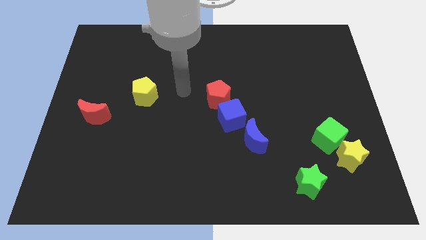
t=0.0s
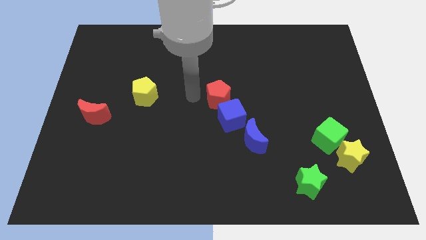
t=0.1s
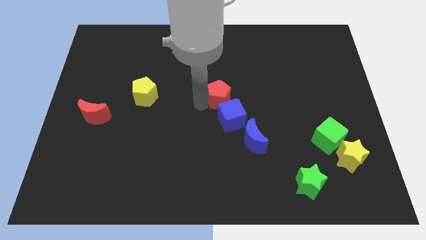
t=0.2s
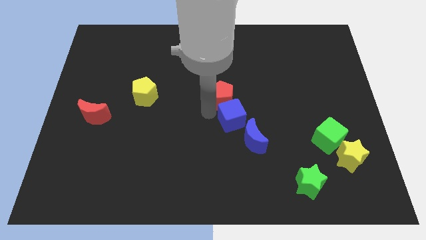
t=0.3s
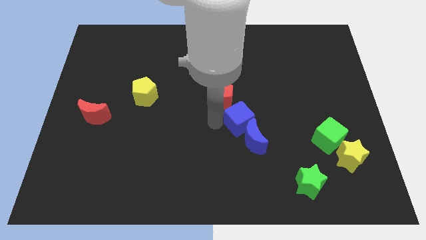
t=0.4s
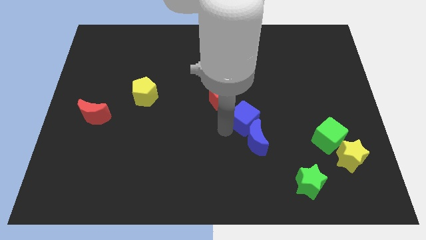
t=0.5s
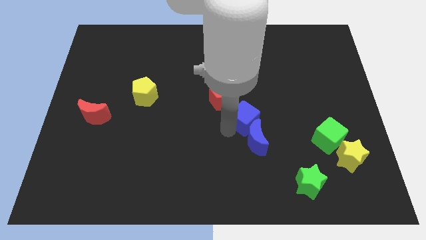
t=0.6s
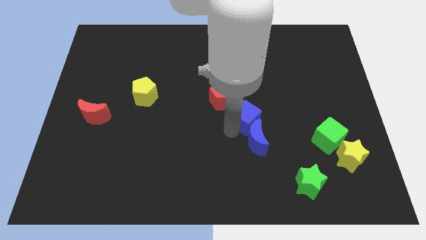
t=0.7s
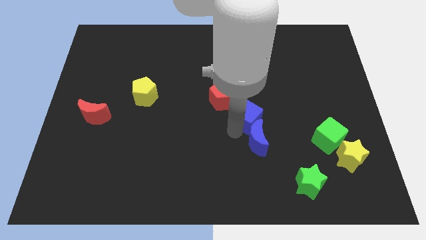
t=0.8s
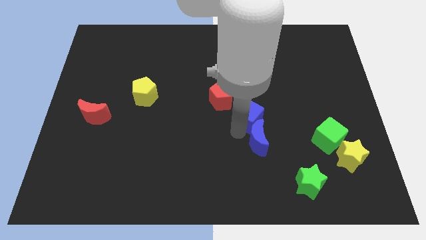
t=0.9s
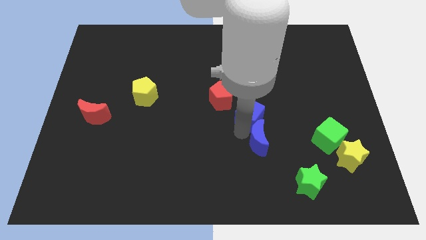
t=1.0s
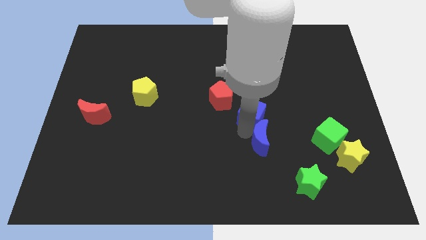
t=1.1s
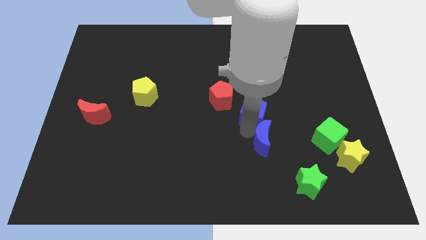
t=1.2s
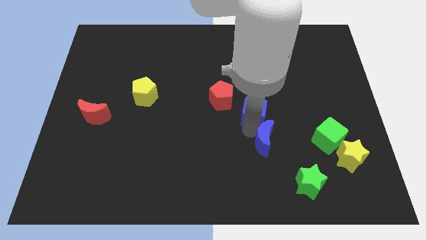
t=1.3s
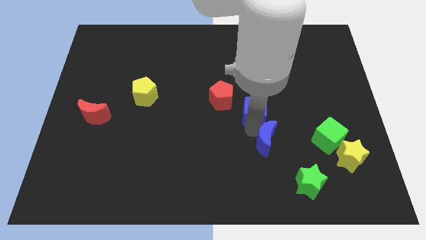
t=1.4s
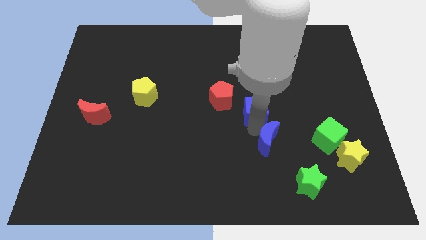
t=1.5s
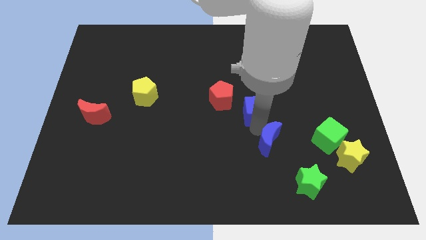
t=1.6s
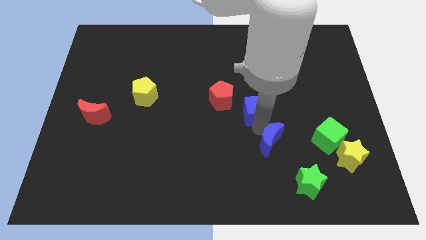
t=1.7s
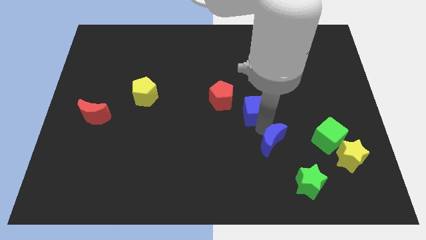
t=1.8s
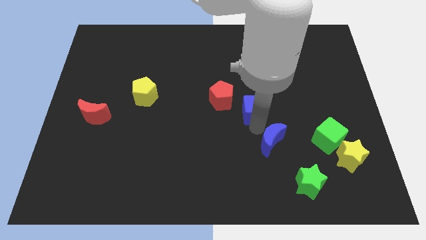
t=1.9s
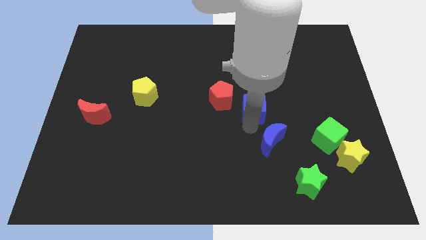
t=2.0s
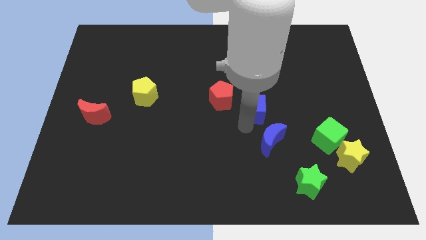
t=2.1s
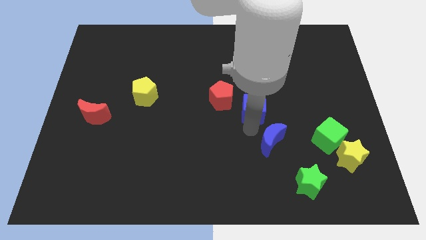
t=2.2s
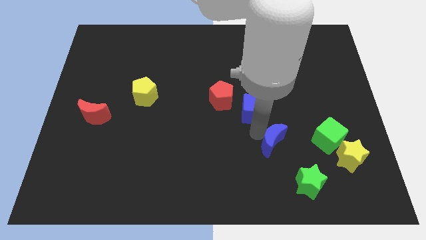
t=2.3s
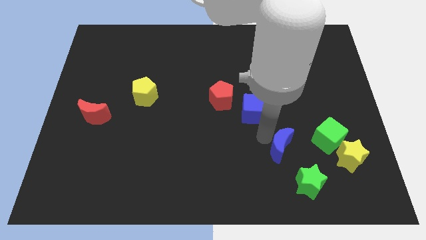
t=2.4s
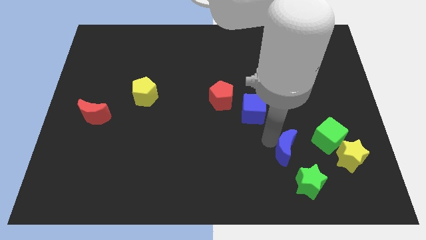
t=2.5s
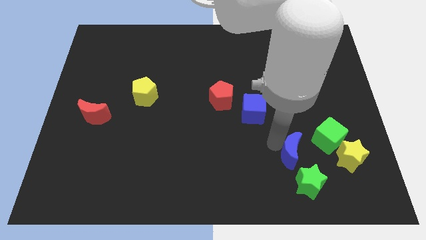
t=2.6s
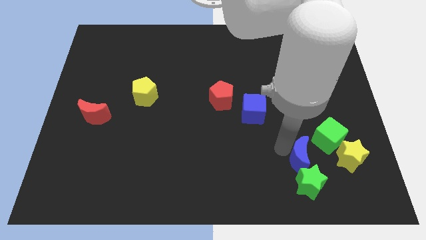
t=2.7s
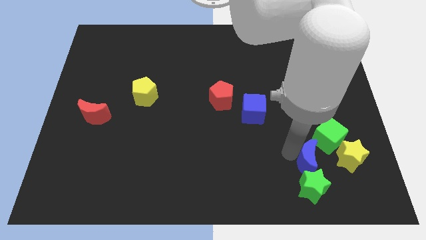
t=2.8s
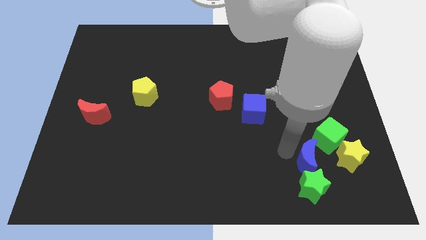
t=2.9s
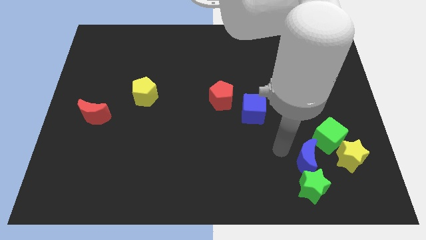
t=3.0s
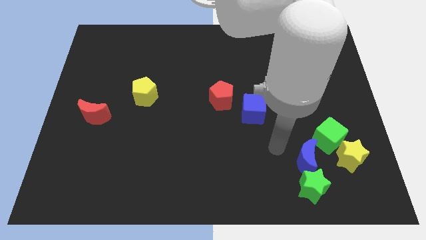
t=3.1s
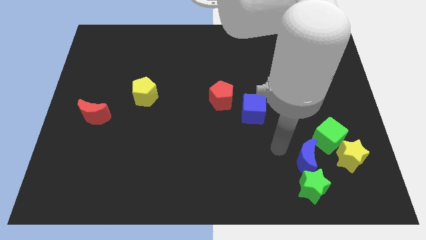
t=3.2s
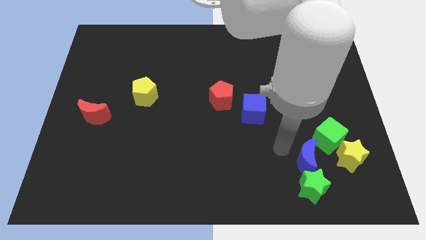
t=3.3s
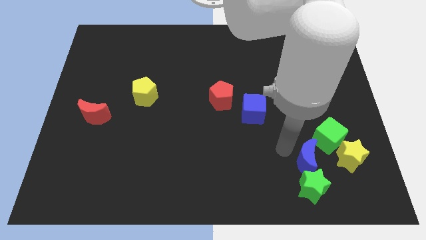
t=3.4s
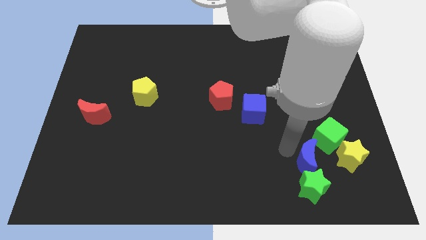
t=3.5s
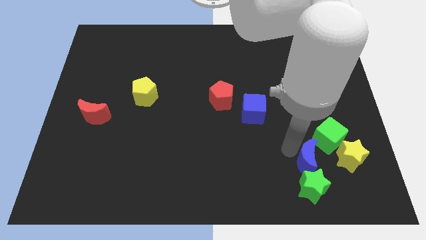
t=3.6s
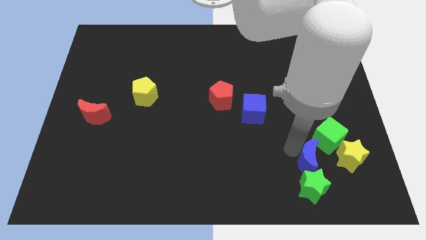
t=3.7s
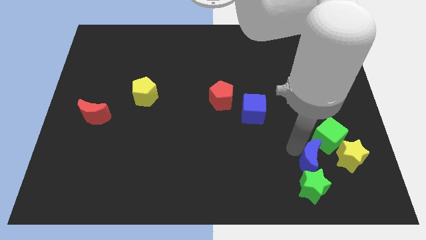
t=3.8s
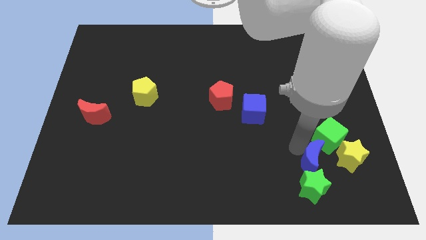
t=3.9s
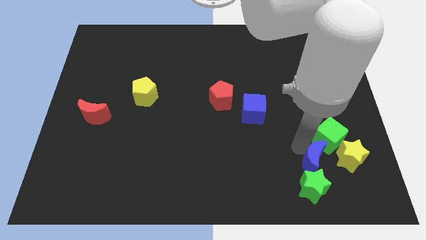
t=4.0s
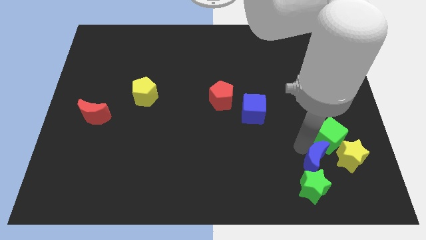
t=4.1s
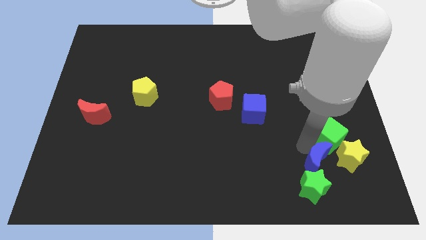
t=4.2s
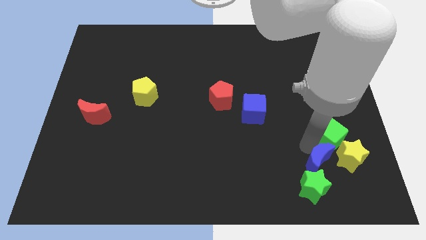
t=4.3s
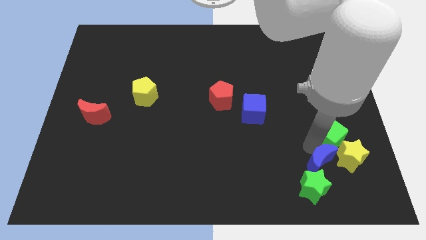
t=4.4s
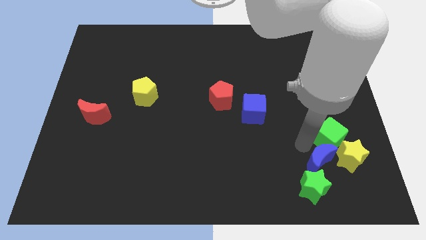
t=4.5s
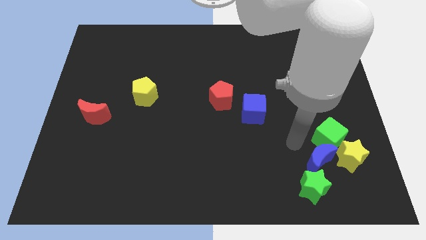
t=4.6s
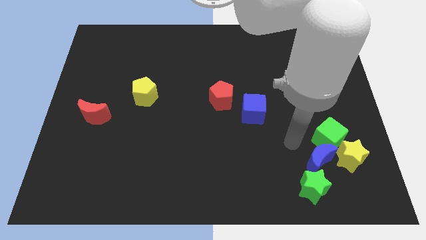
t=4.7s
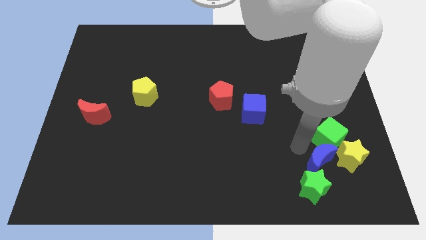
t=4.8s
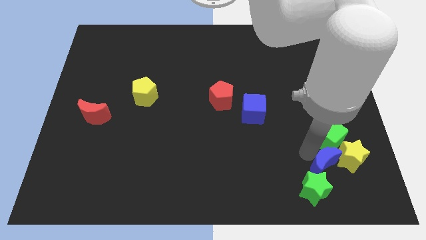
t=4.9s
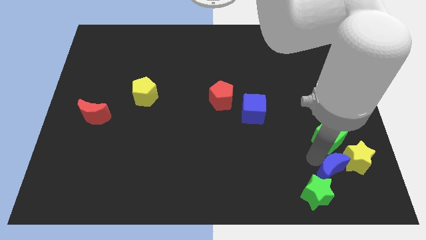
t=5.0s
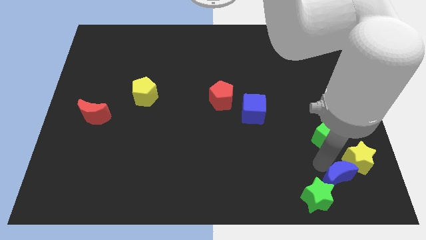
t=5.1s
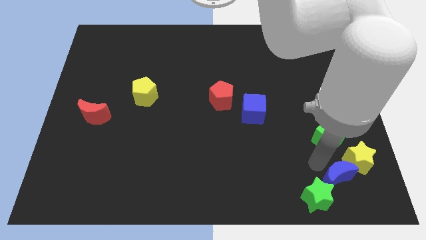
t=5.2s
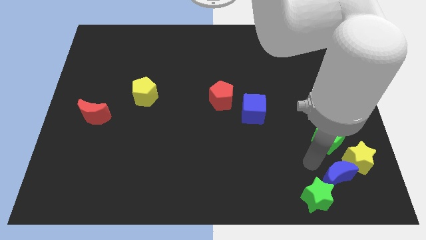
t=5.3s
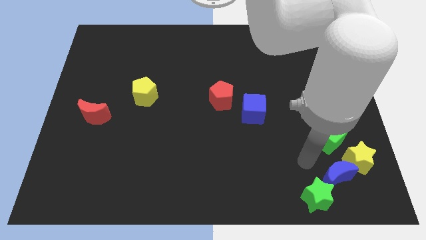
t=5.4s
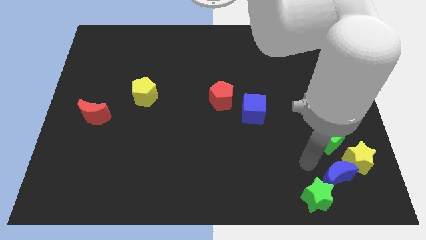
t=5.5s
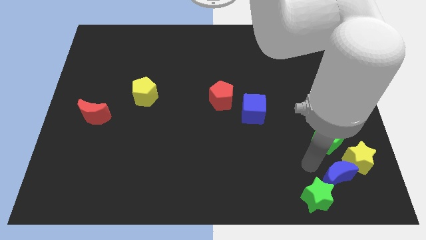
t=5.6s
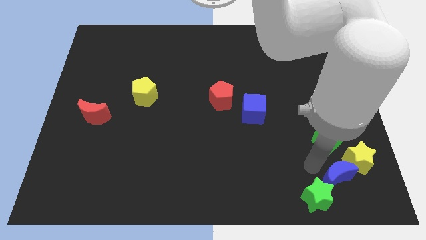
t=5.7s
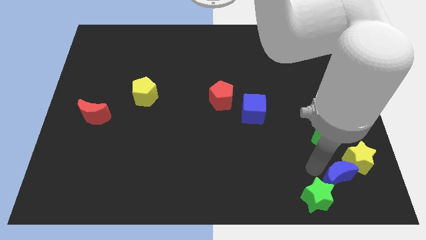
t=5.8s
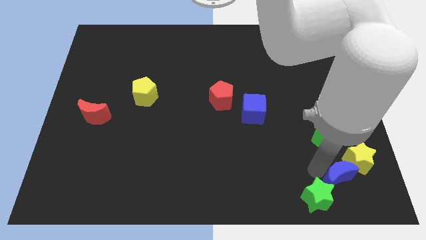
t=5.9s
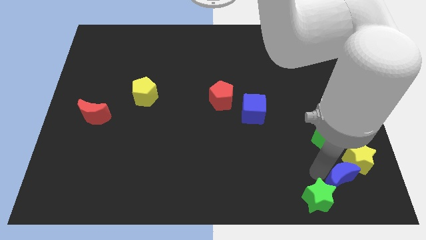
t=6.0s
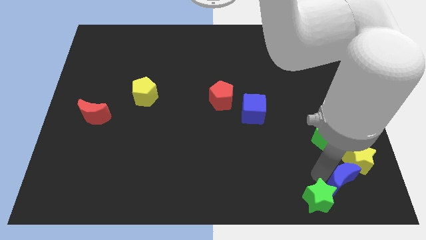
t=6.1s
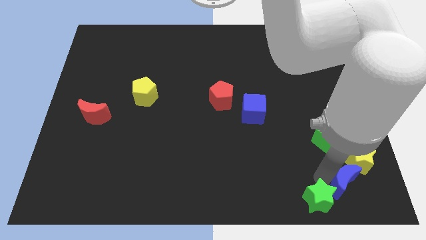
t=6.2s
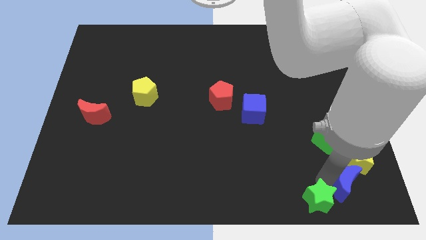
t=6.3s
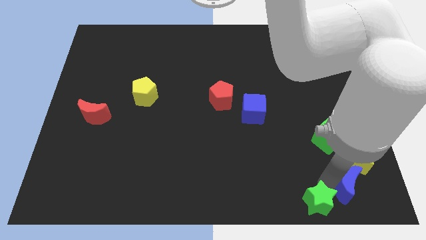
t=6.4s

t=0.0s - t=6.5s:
move the blue moon to the bottom right of the board
